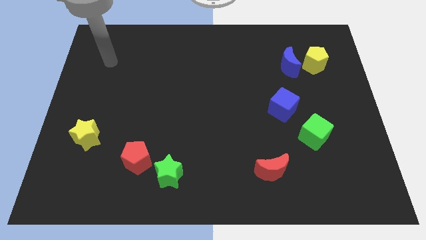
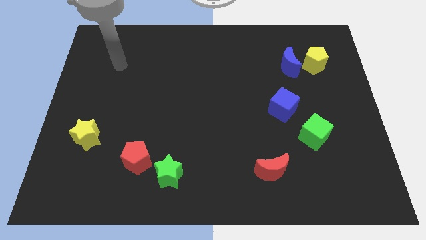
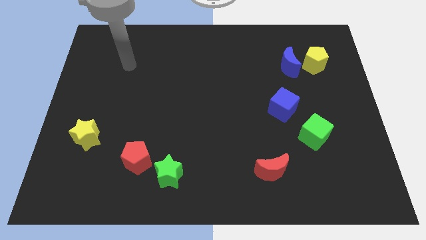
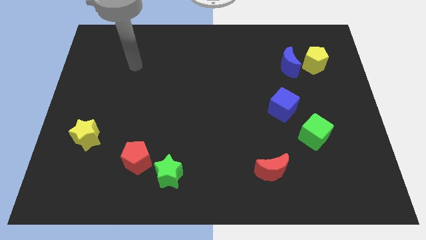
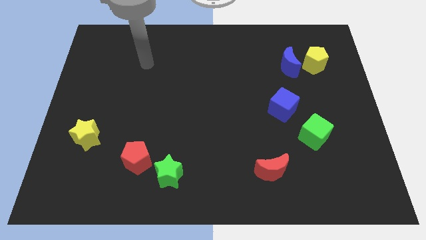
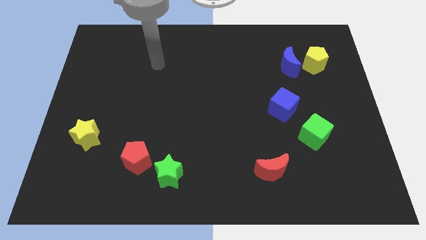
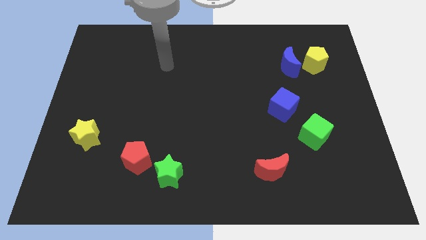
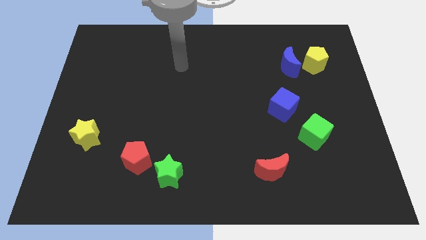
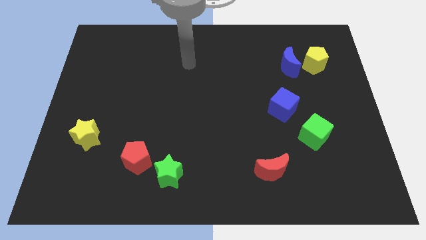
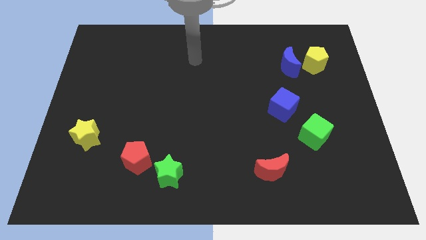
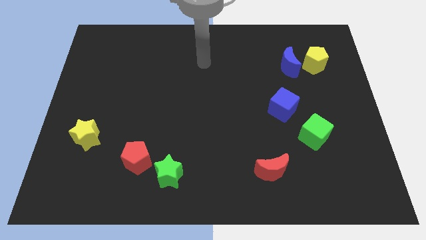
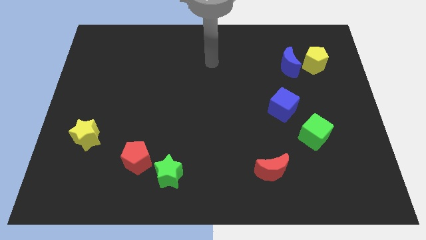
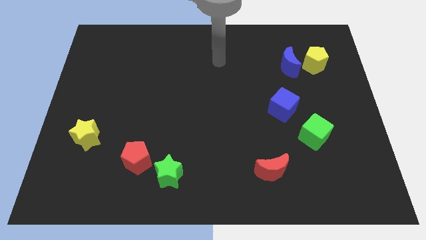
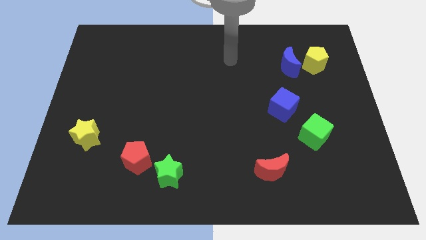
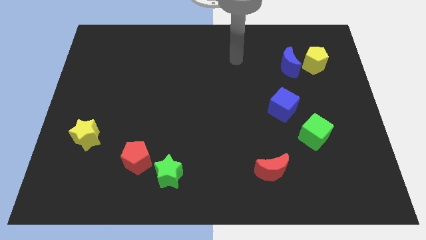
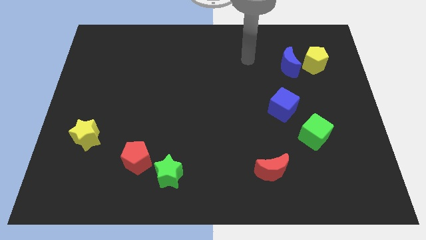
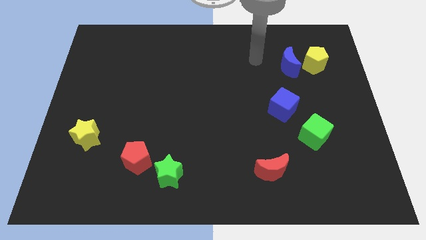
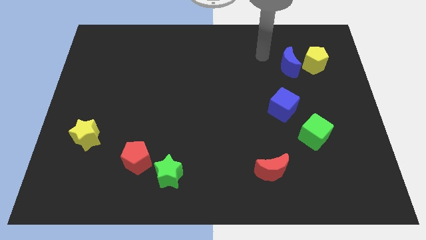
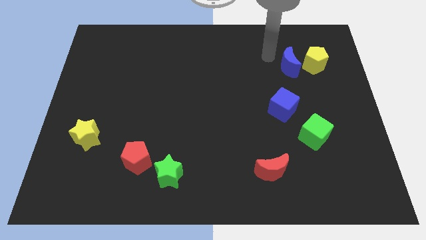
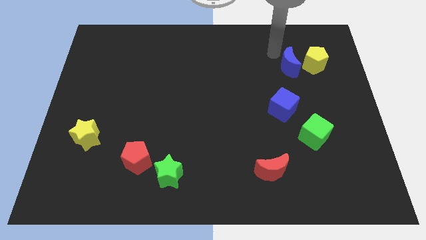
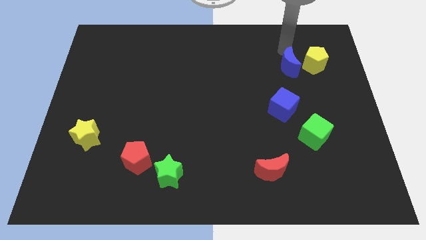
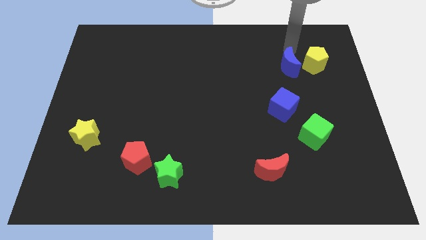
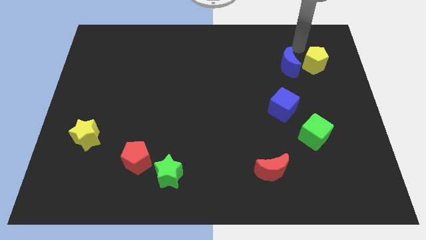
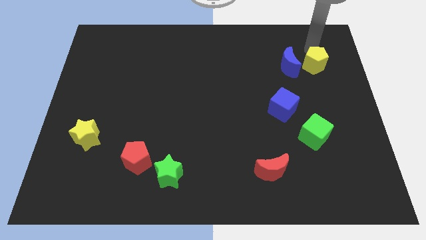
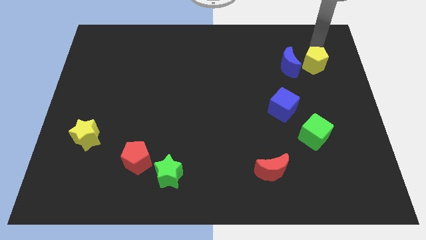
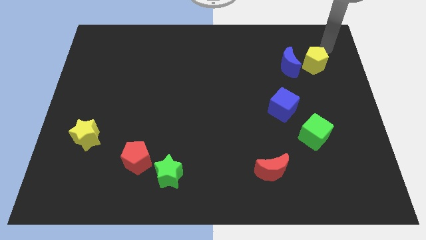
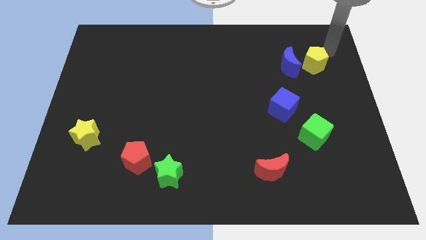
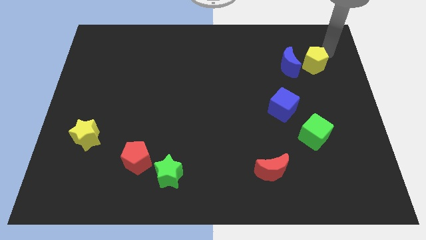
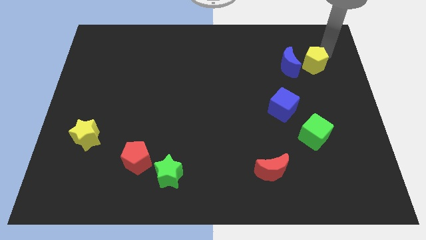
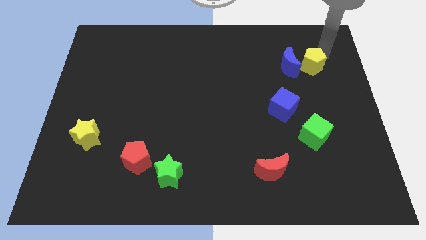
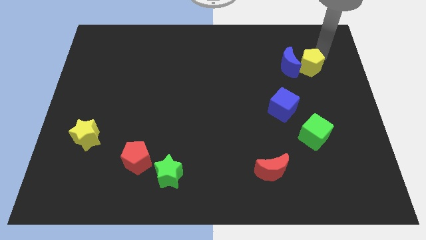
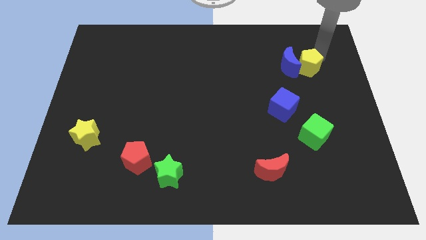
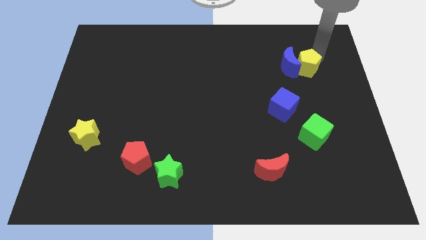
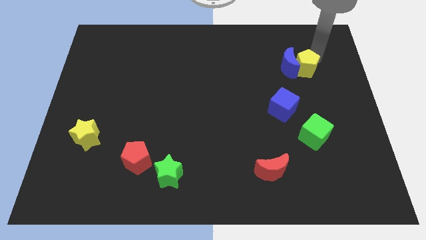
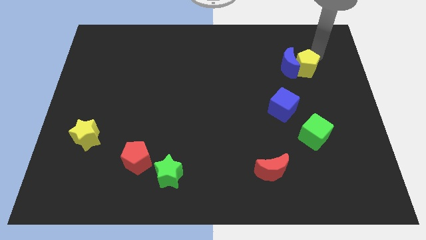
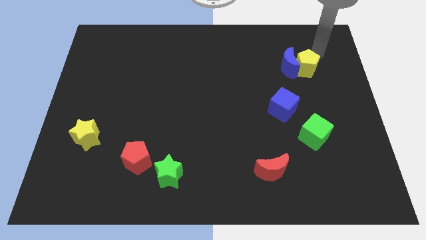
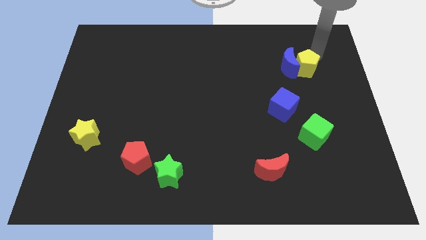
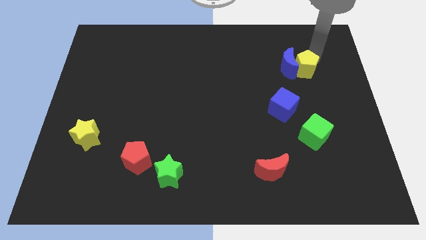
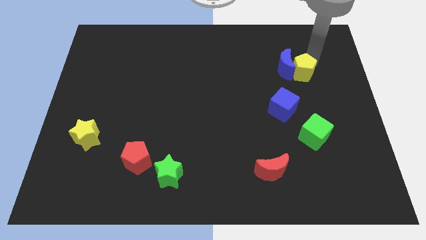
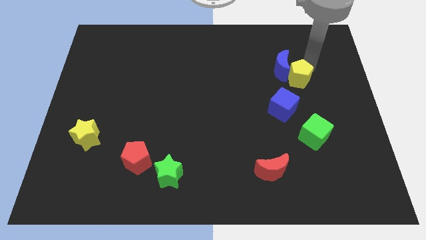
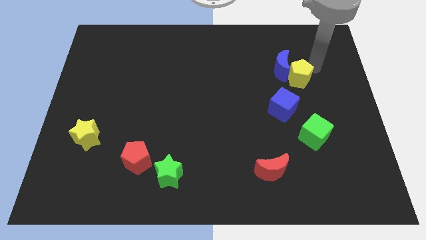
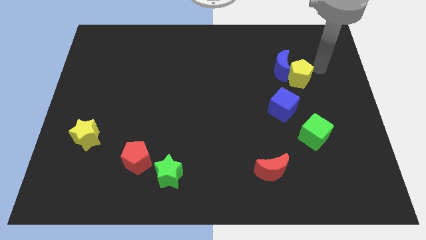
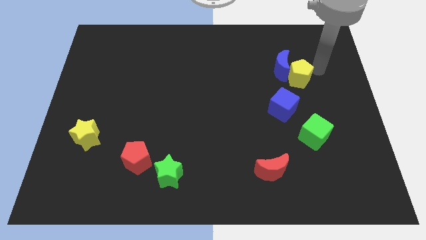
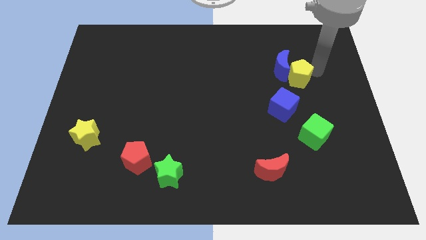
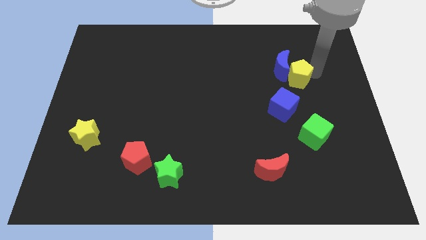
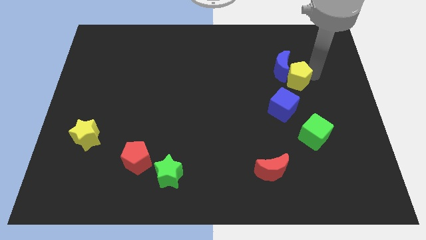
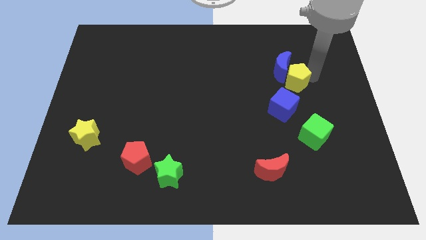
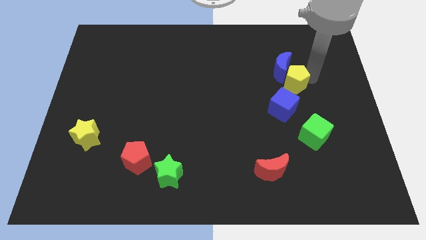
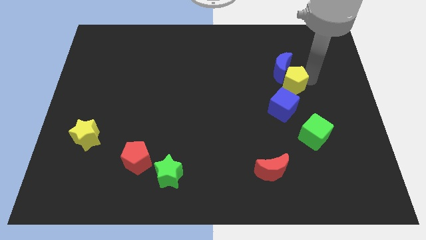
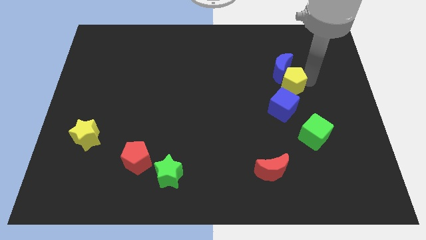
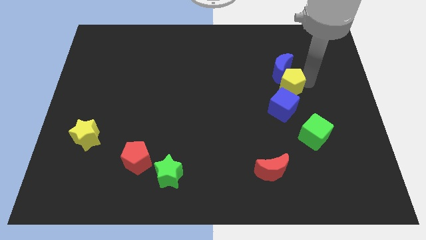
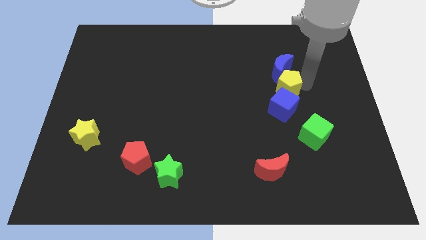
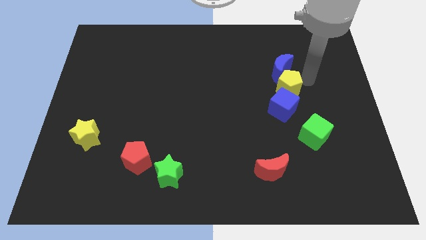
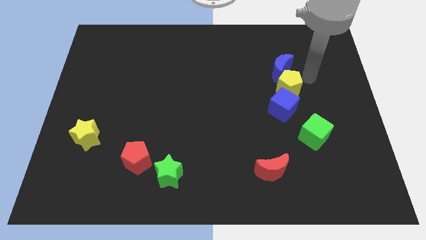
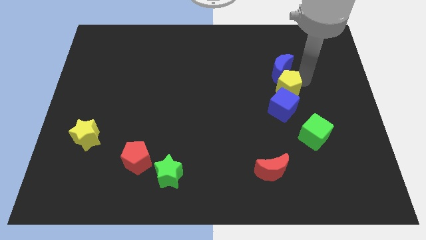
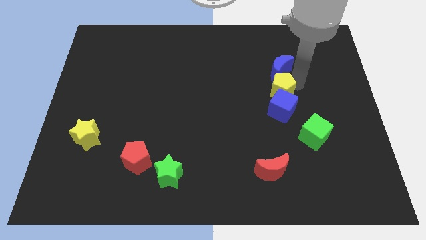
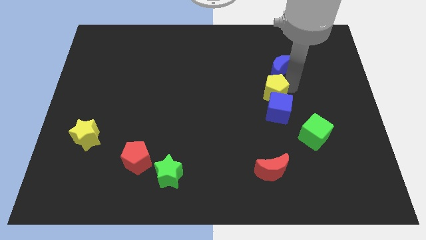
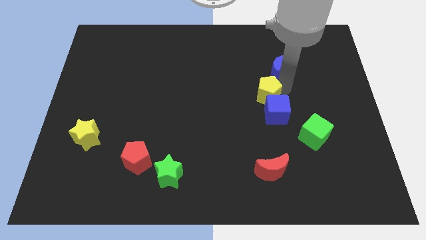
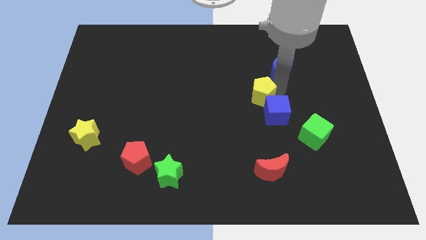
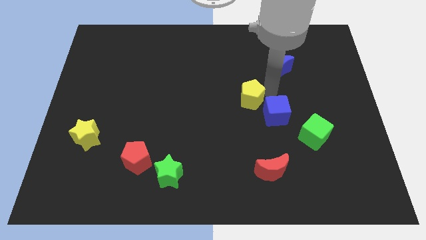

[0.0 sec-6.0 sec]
slide the yellow pentagon downwards and then to the left

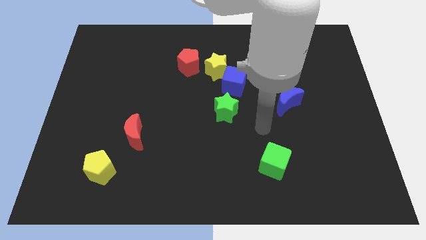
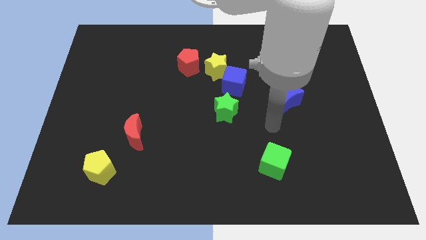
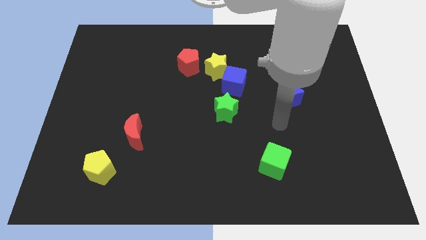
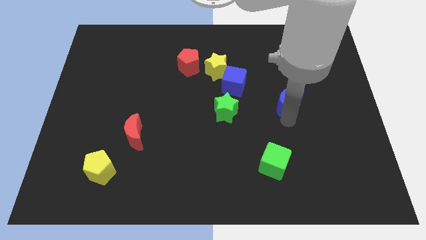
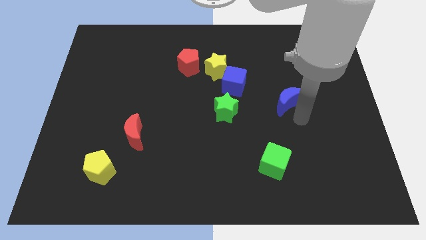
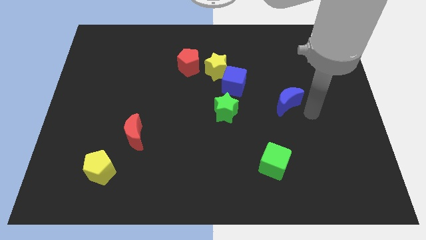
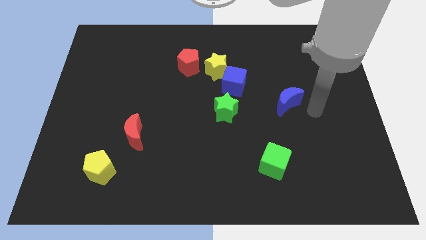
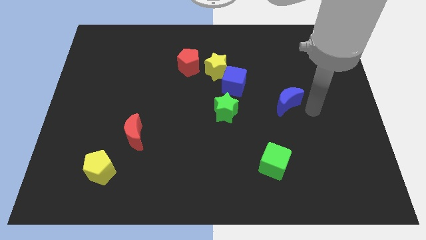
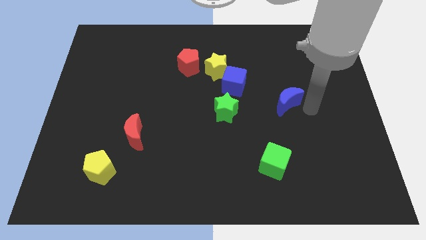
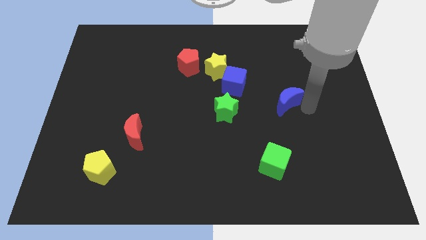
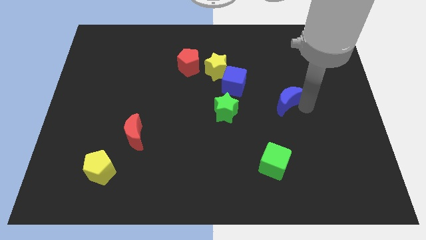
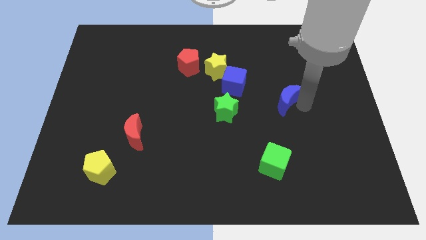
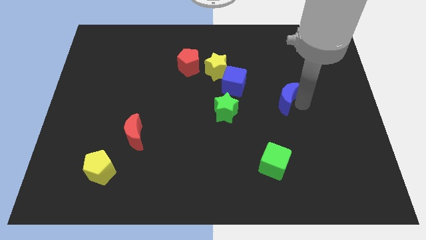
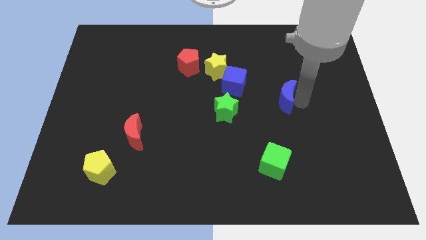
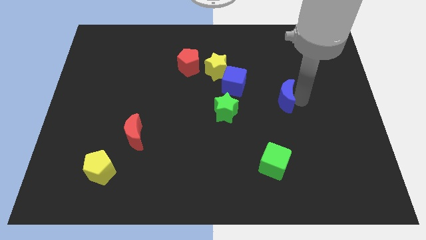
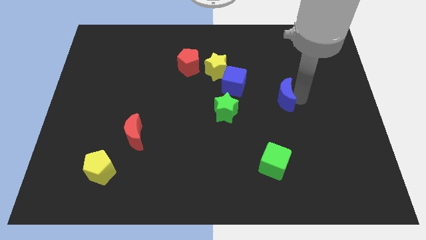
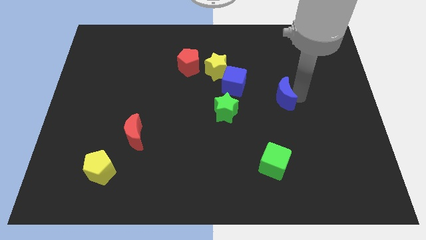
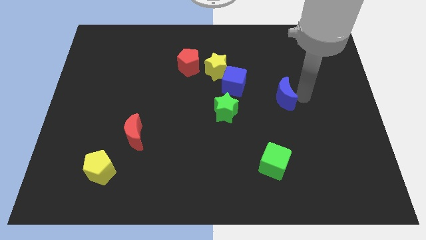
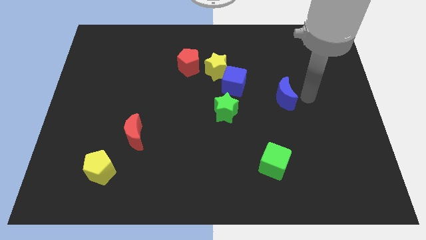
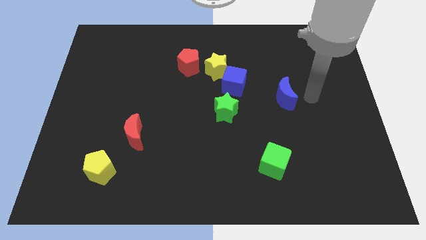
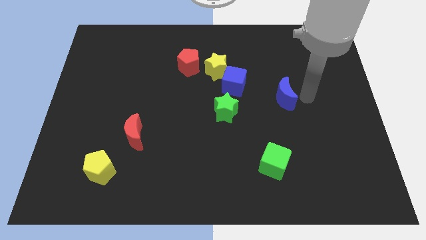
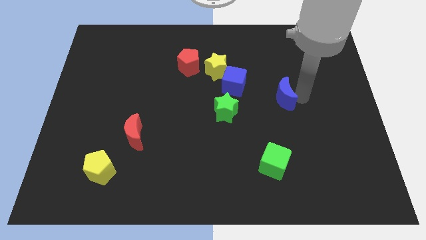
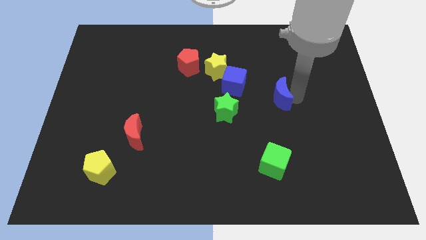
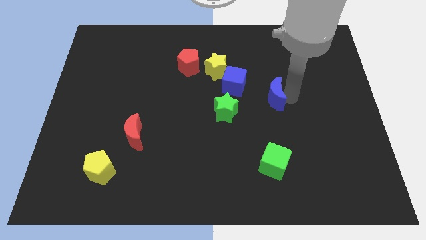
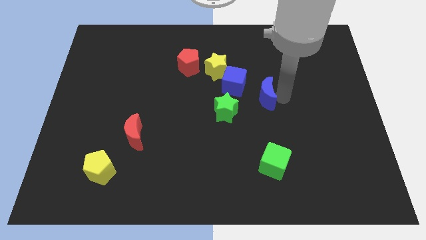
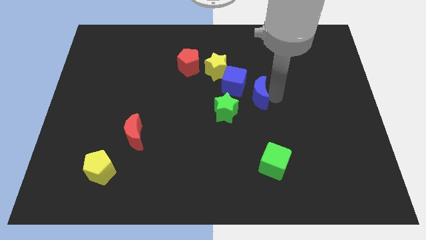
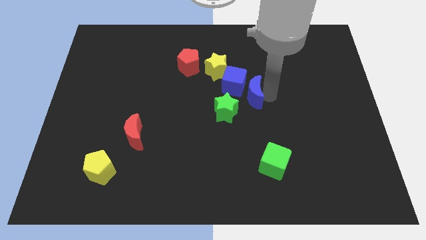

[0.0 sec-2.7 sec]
push the blue moon a bit to the left
